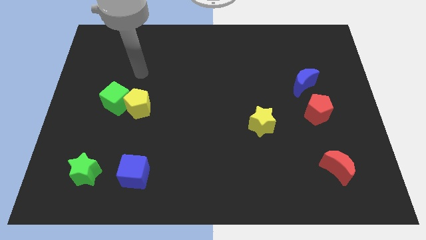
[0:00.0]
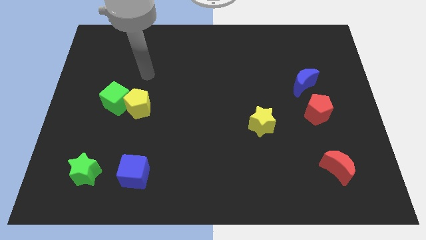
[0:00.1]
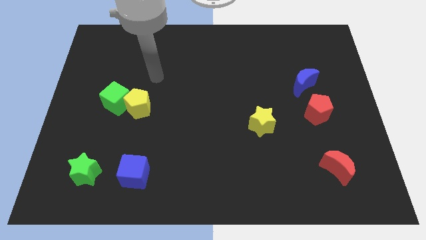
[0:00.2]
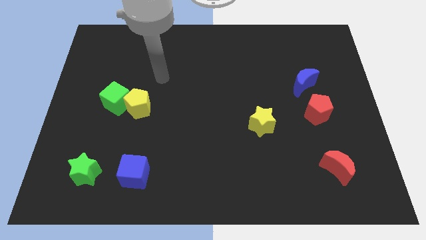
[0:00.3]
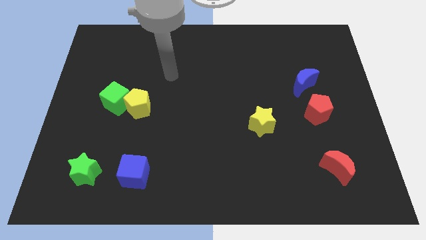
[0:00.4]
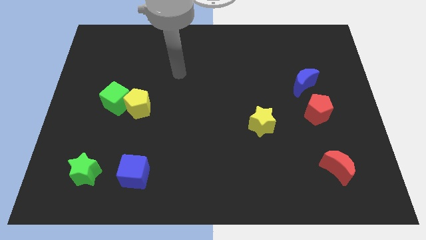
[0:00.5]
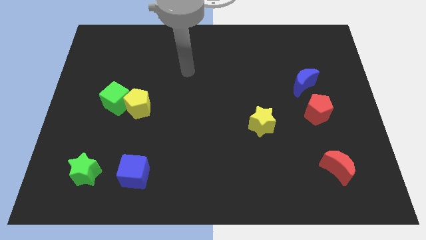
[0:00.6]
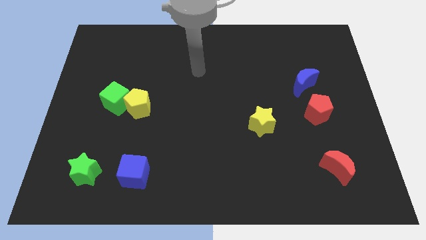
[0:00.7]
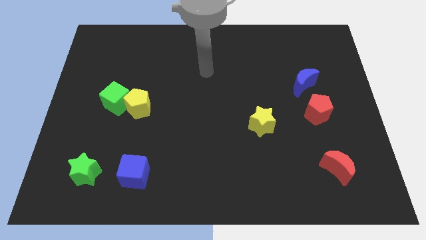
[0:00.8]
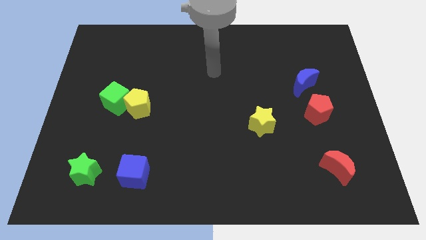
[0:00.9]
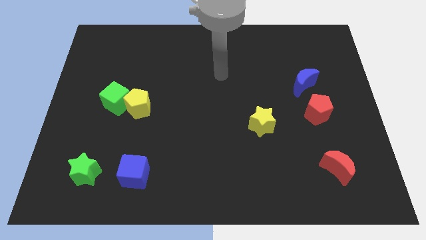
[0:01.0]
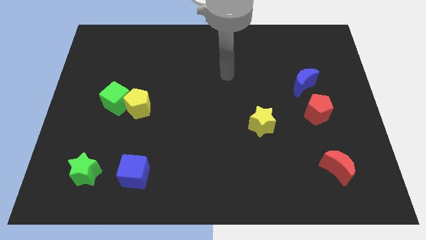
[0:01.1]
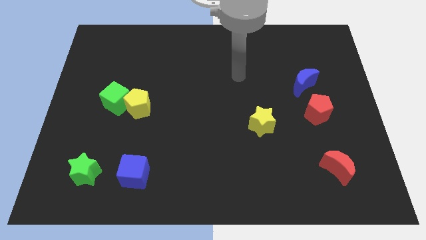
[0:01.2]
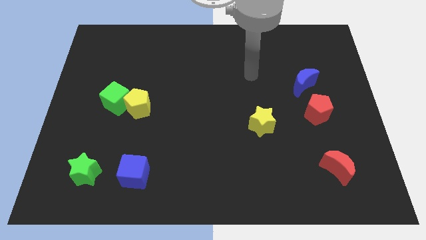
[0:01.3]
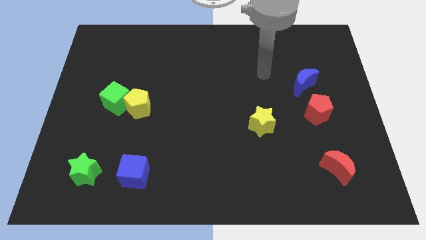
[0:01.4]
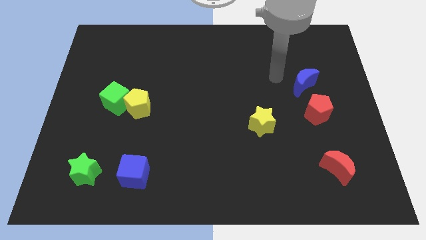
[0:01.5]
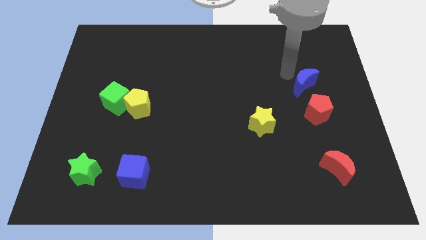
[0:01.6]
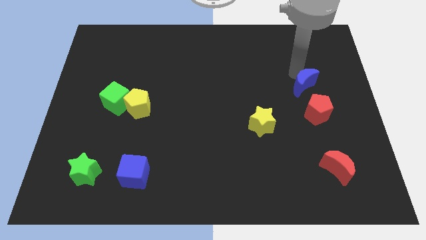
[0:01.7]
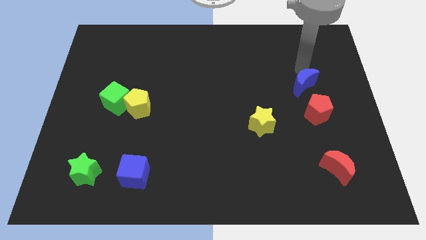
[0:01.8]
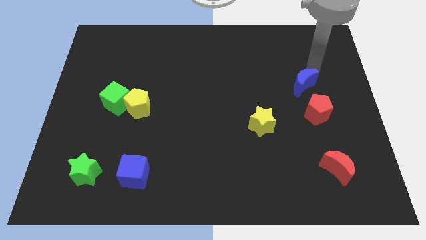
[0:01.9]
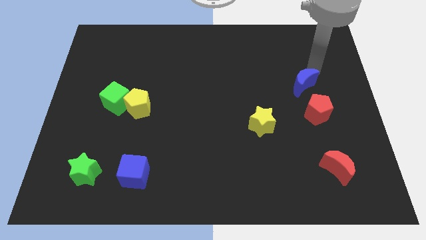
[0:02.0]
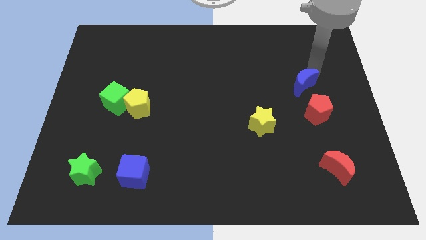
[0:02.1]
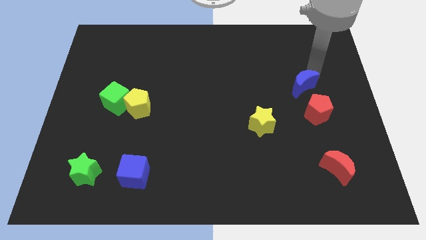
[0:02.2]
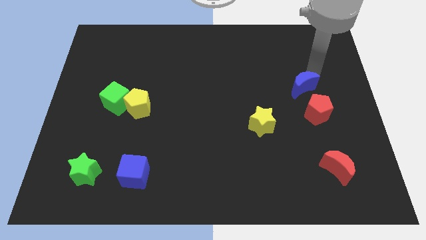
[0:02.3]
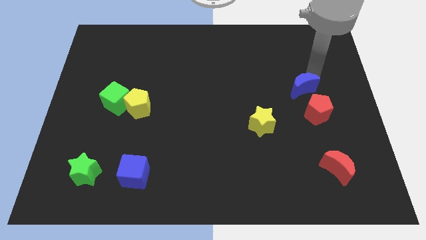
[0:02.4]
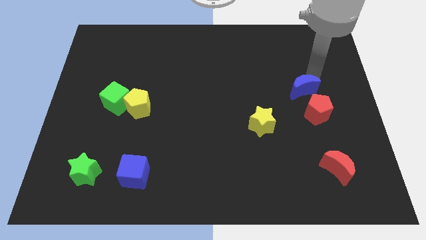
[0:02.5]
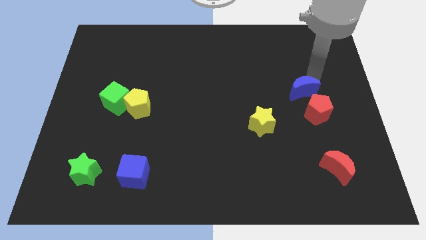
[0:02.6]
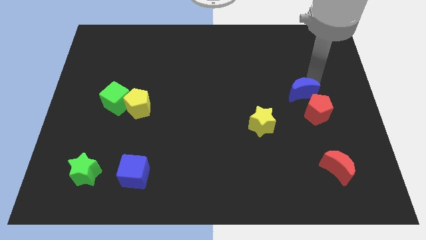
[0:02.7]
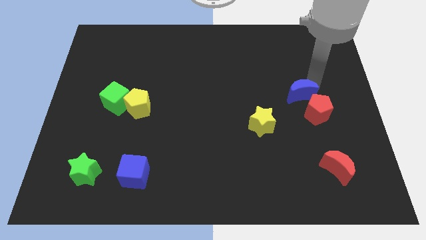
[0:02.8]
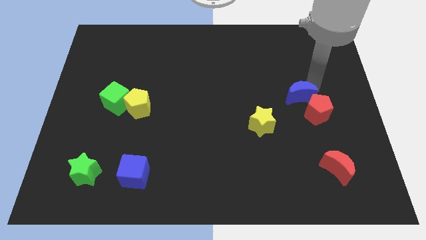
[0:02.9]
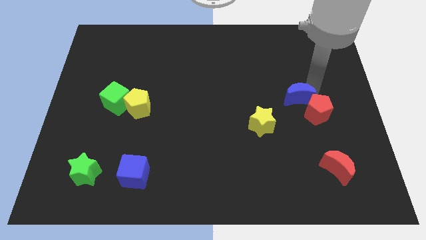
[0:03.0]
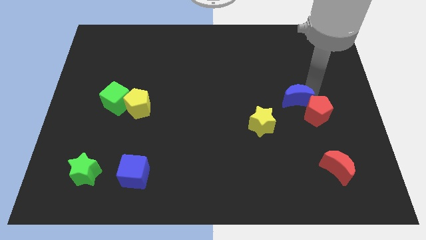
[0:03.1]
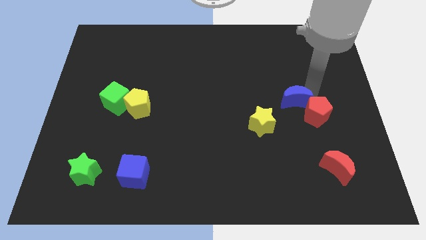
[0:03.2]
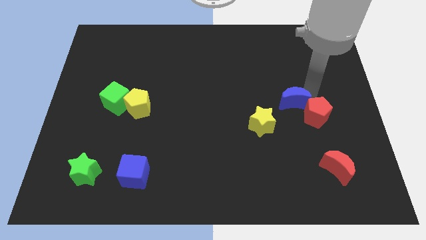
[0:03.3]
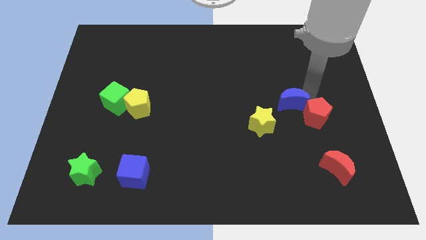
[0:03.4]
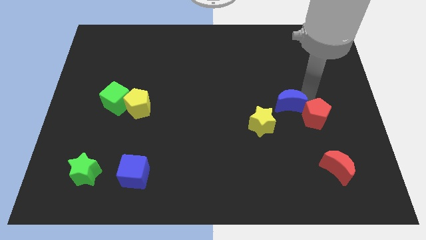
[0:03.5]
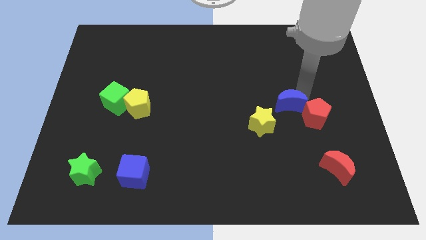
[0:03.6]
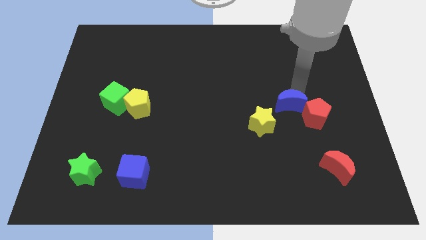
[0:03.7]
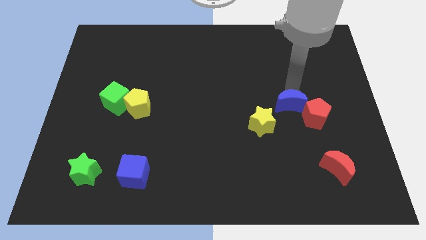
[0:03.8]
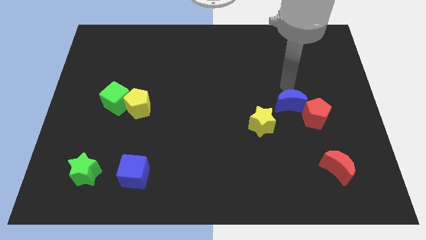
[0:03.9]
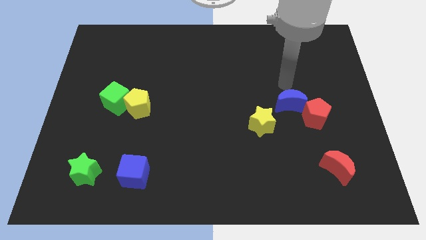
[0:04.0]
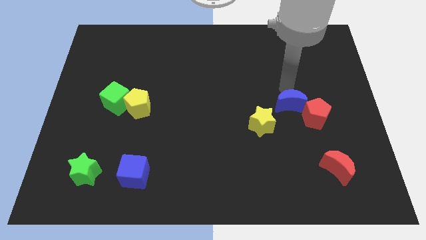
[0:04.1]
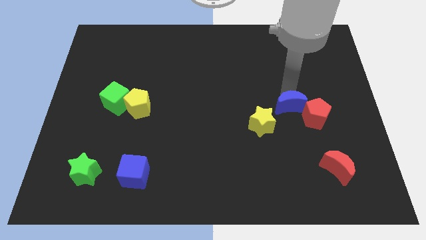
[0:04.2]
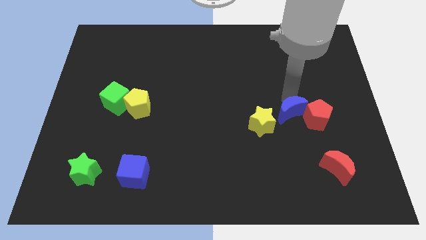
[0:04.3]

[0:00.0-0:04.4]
slide the blue moon down a little bit

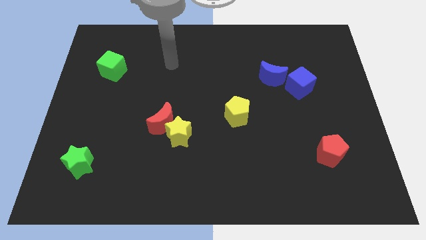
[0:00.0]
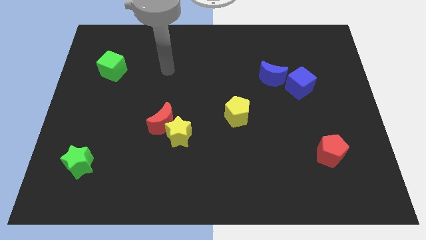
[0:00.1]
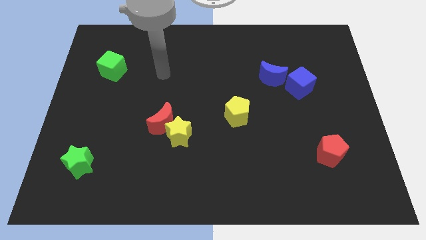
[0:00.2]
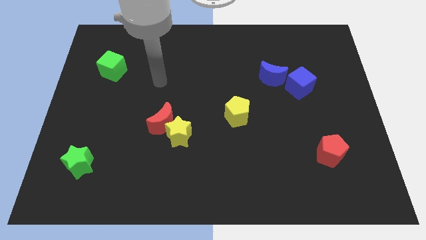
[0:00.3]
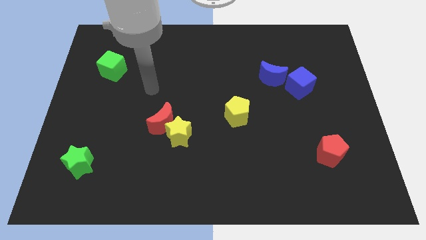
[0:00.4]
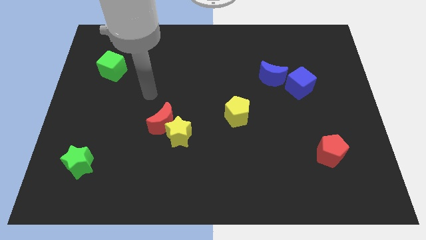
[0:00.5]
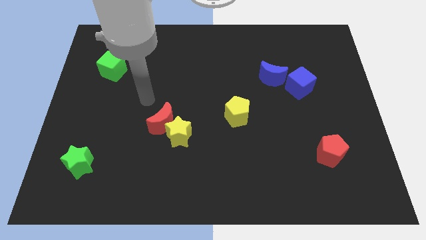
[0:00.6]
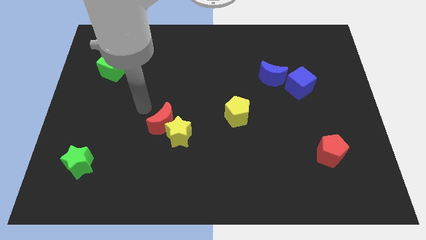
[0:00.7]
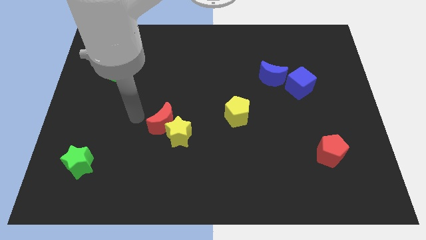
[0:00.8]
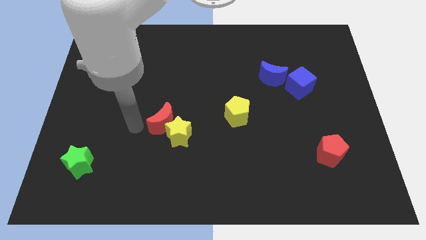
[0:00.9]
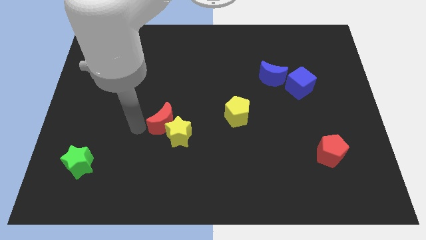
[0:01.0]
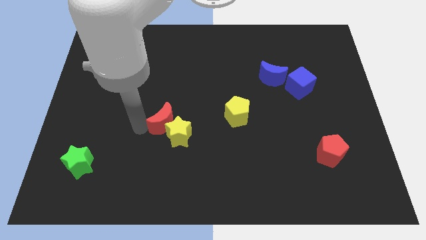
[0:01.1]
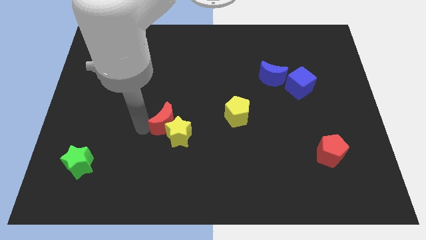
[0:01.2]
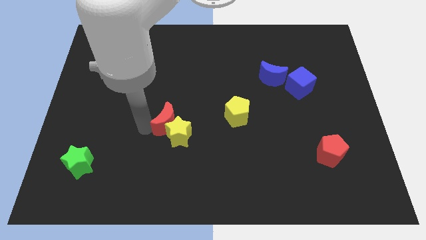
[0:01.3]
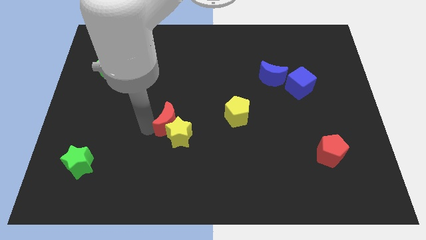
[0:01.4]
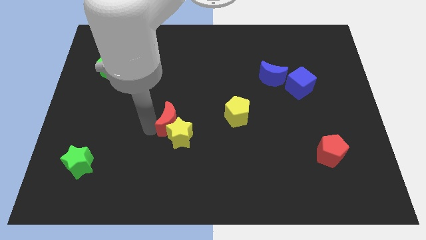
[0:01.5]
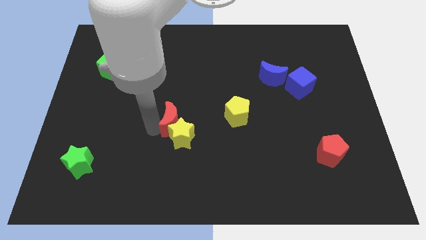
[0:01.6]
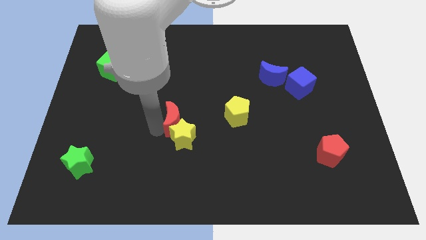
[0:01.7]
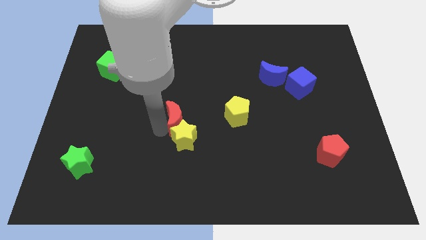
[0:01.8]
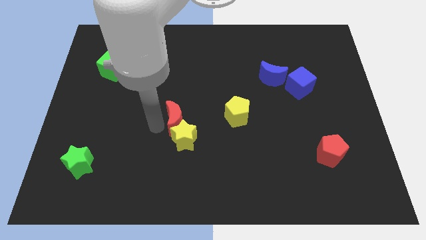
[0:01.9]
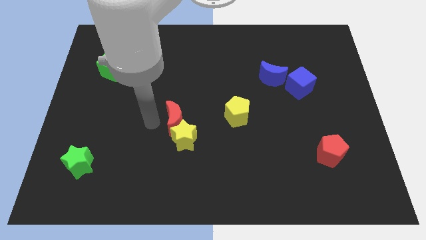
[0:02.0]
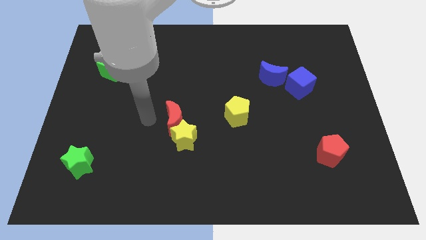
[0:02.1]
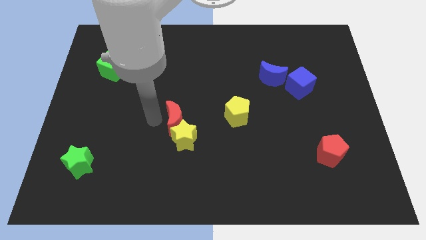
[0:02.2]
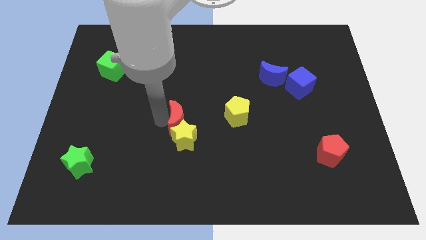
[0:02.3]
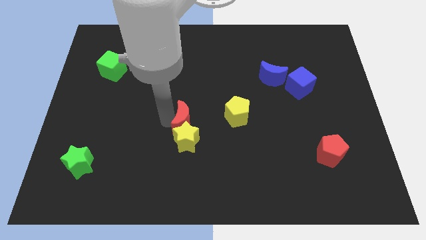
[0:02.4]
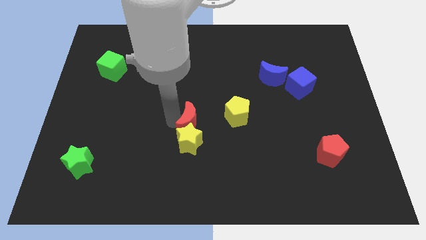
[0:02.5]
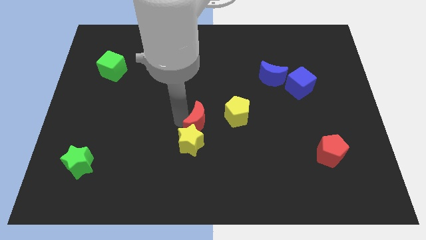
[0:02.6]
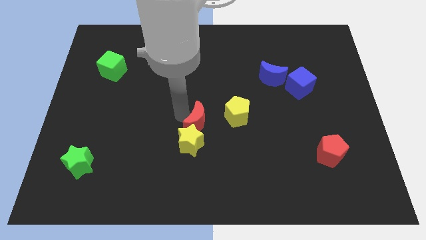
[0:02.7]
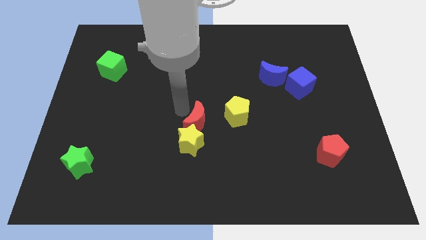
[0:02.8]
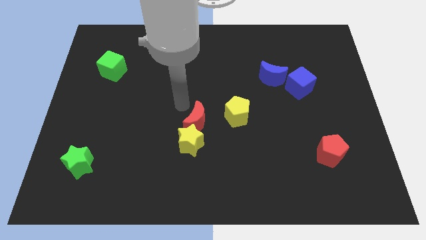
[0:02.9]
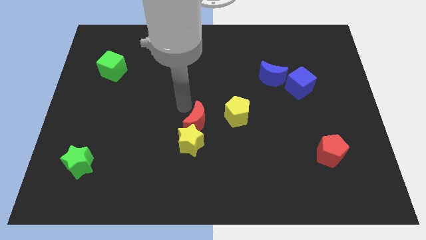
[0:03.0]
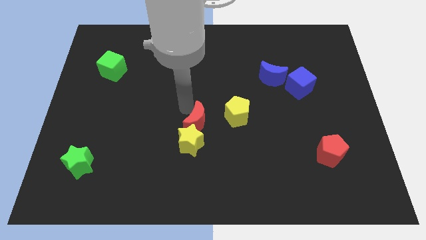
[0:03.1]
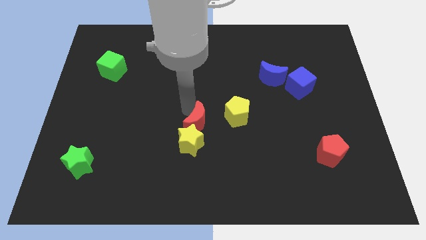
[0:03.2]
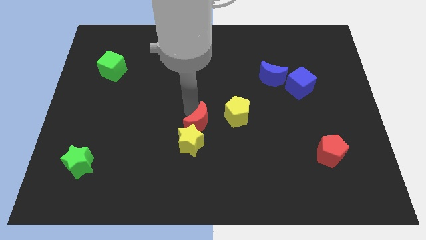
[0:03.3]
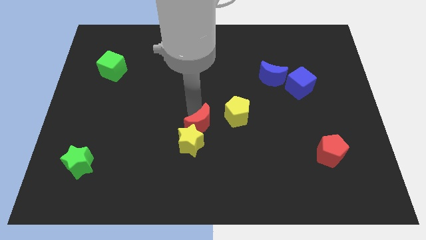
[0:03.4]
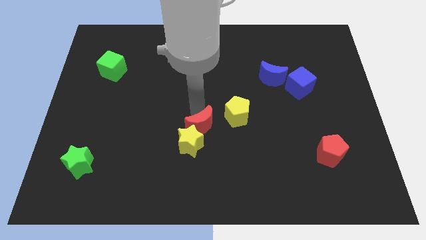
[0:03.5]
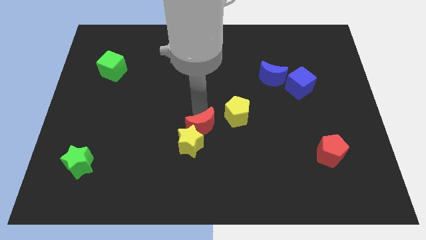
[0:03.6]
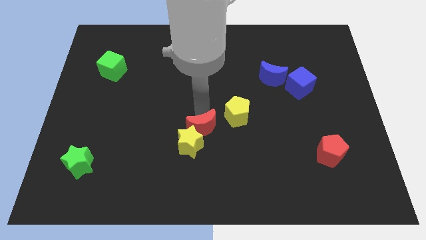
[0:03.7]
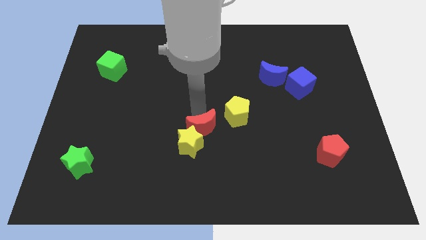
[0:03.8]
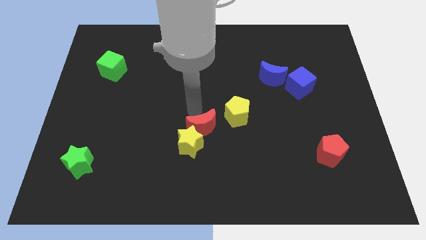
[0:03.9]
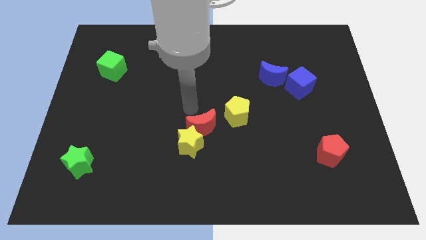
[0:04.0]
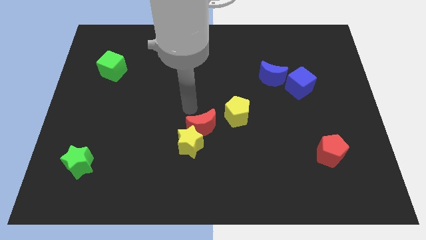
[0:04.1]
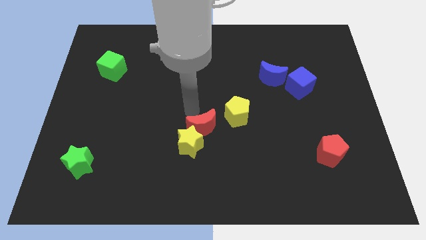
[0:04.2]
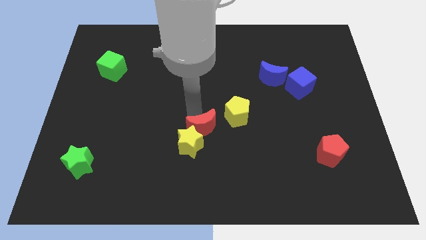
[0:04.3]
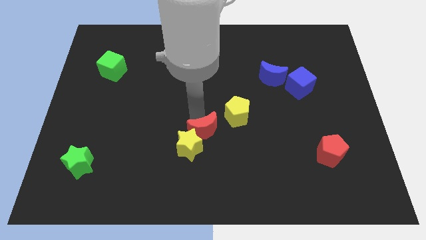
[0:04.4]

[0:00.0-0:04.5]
move the red moon a bit diagonally downwards and to the right
